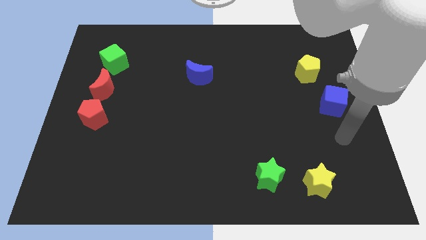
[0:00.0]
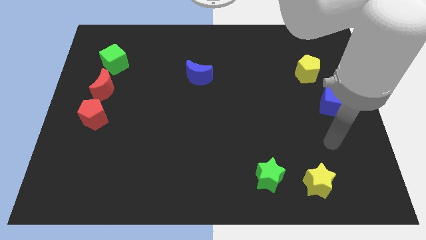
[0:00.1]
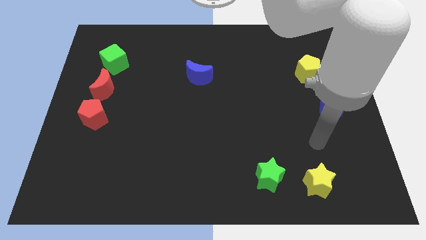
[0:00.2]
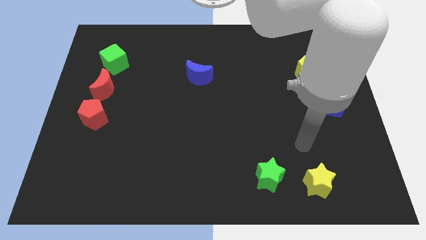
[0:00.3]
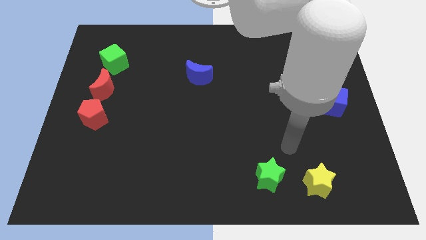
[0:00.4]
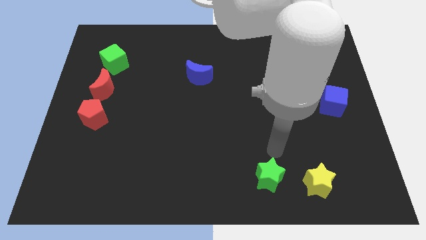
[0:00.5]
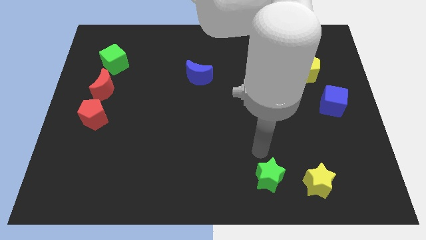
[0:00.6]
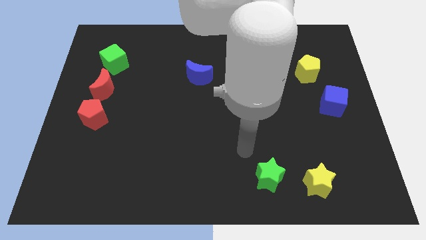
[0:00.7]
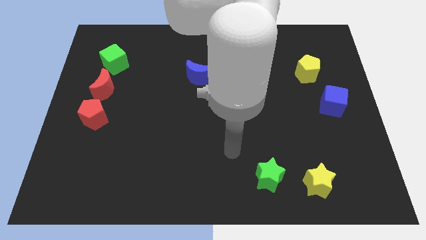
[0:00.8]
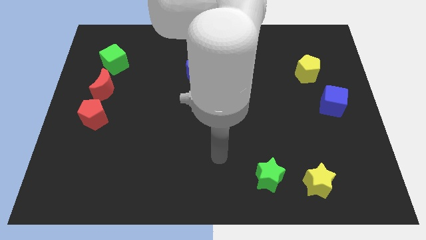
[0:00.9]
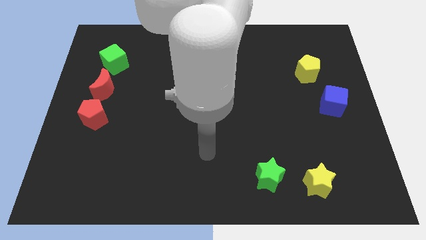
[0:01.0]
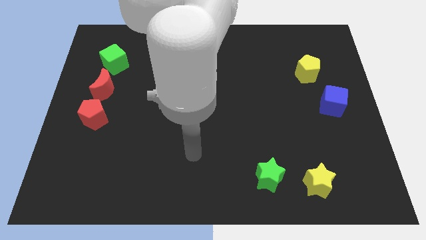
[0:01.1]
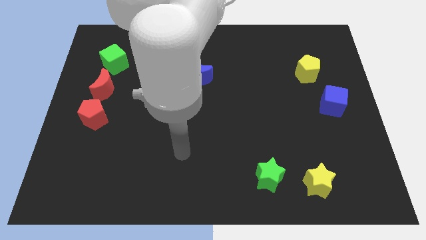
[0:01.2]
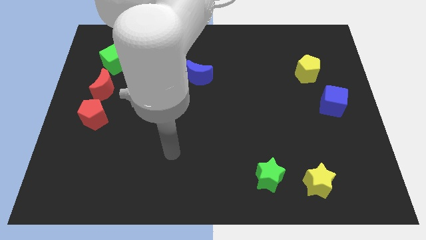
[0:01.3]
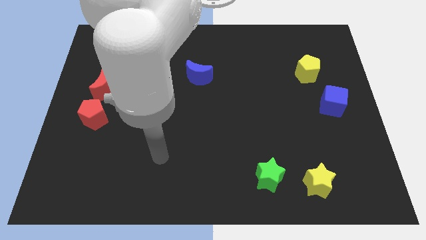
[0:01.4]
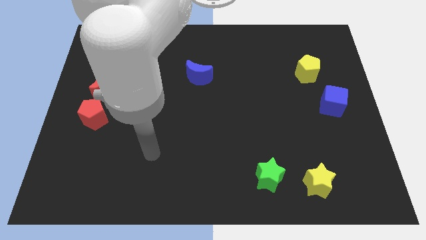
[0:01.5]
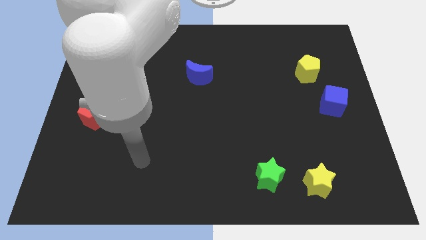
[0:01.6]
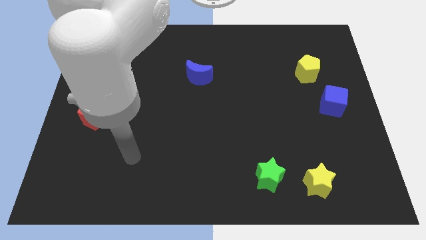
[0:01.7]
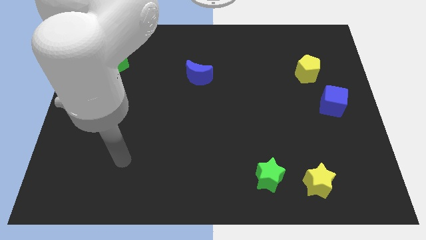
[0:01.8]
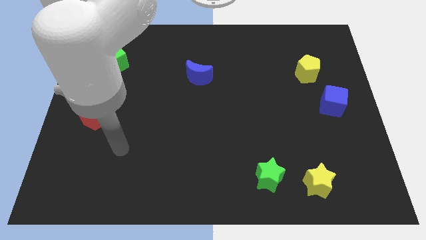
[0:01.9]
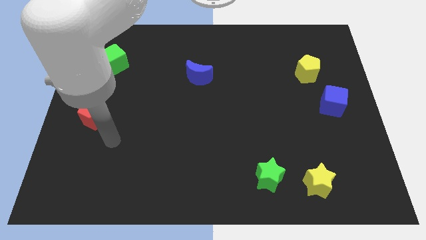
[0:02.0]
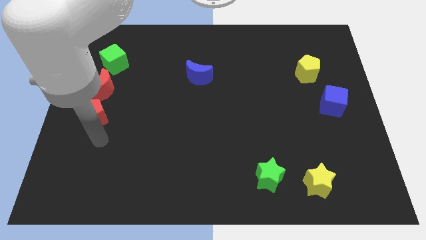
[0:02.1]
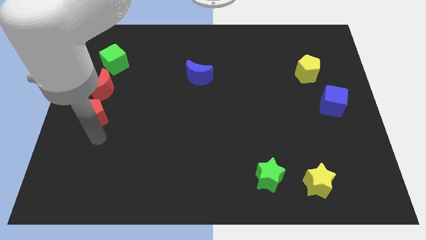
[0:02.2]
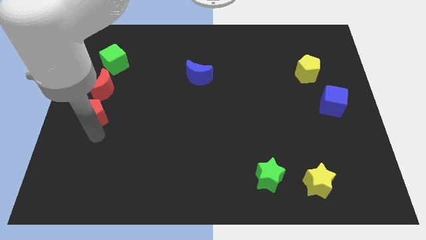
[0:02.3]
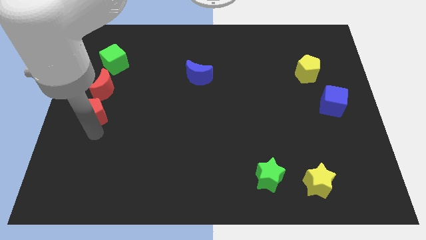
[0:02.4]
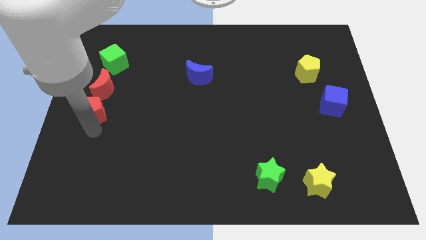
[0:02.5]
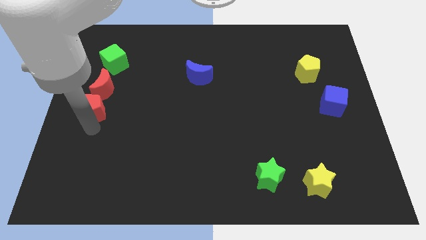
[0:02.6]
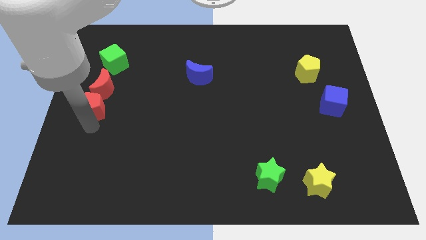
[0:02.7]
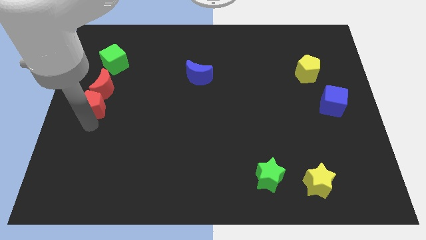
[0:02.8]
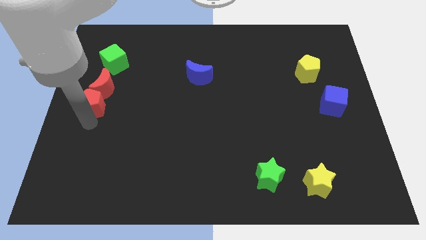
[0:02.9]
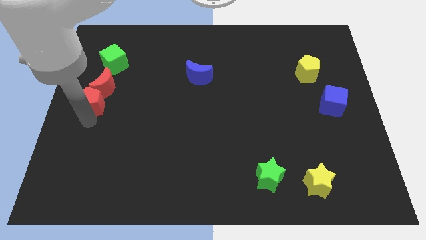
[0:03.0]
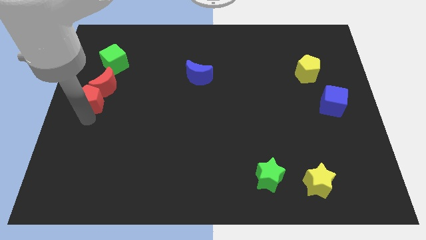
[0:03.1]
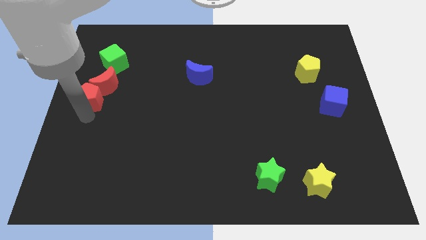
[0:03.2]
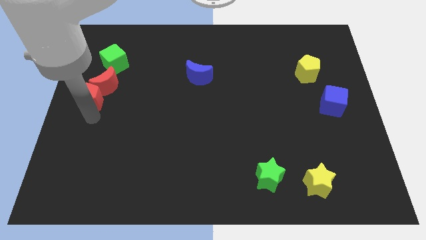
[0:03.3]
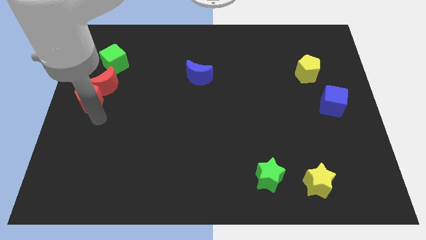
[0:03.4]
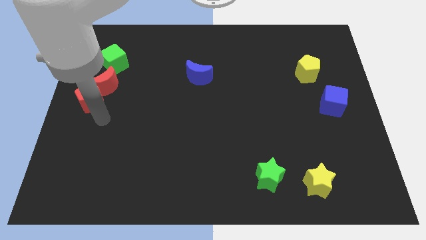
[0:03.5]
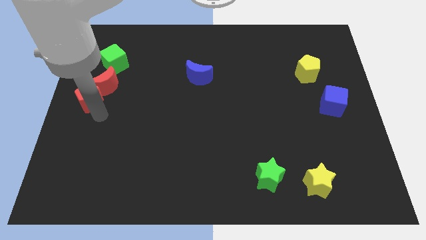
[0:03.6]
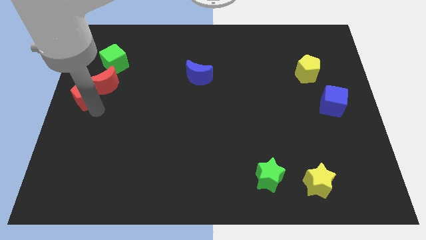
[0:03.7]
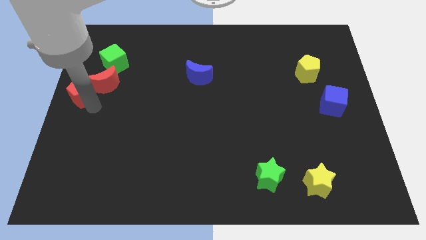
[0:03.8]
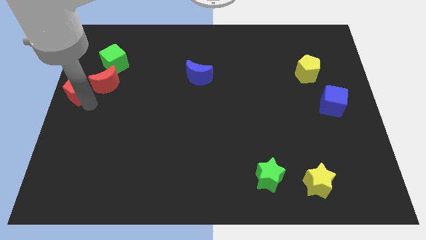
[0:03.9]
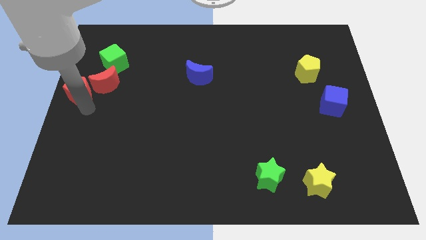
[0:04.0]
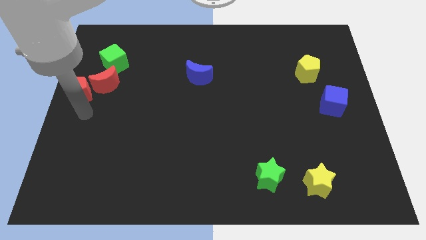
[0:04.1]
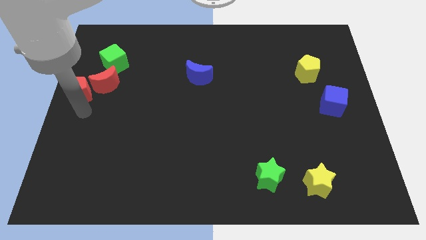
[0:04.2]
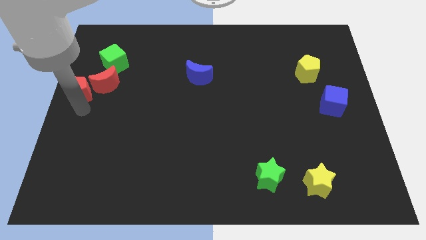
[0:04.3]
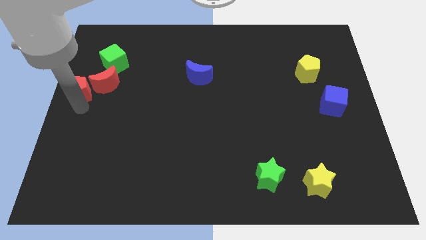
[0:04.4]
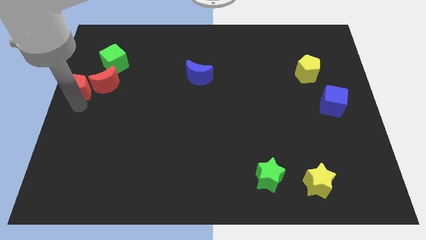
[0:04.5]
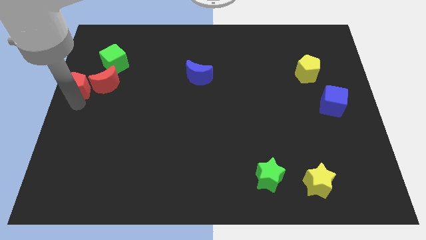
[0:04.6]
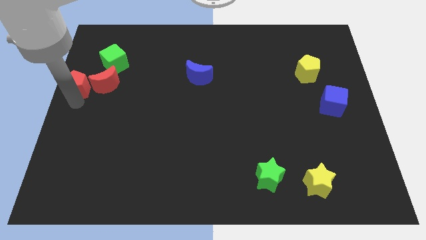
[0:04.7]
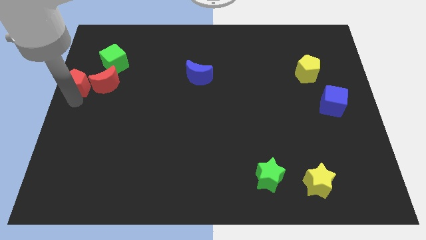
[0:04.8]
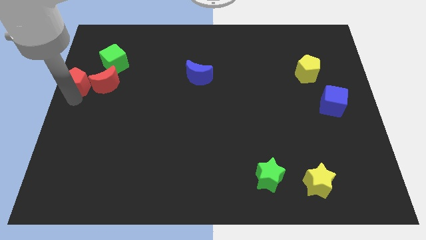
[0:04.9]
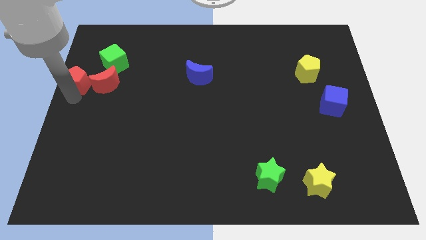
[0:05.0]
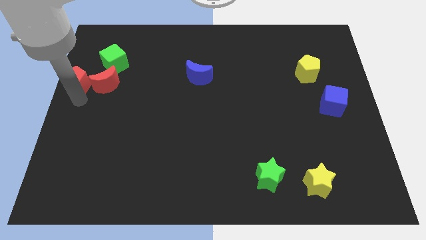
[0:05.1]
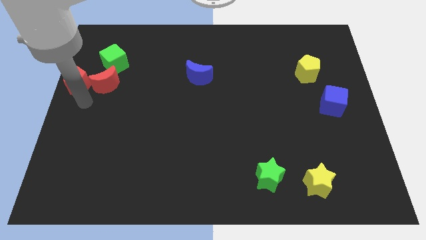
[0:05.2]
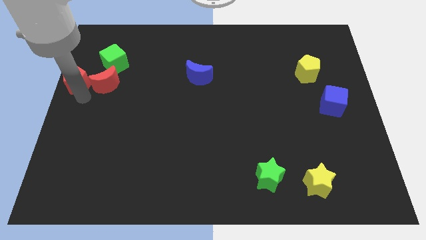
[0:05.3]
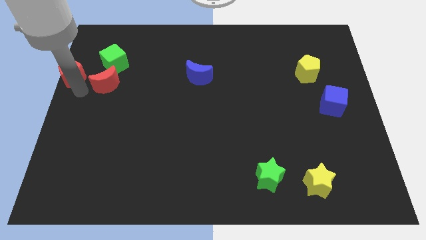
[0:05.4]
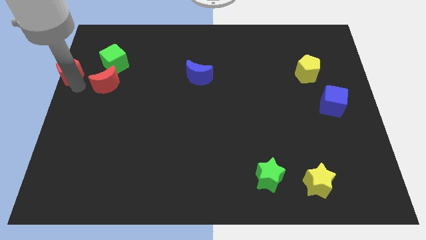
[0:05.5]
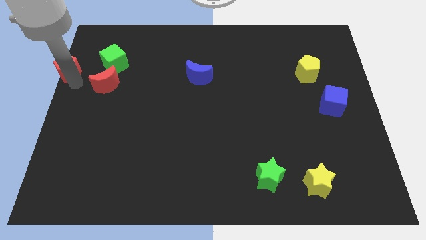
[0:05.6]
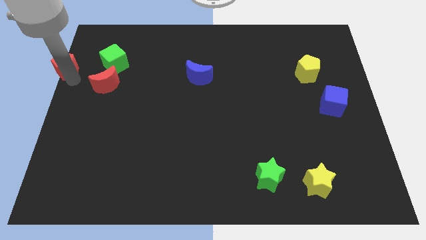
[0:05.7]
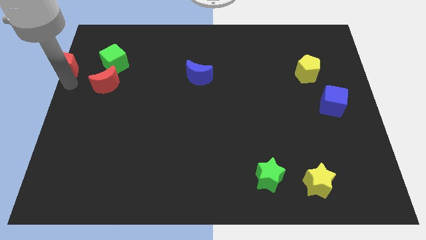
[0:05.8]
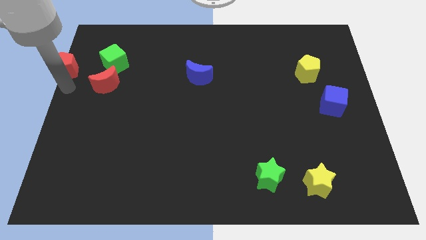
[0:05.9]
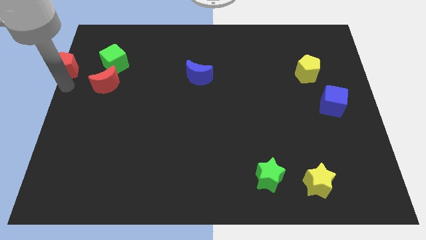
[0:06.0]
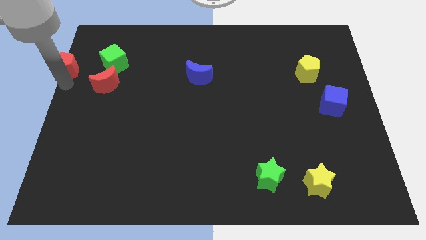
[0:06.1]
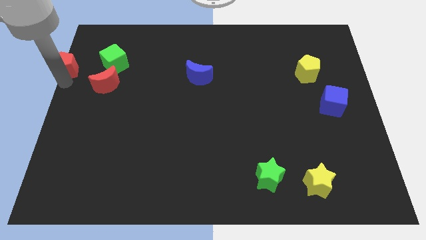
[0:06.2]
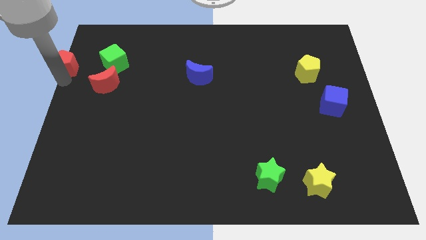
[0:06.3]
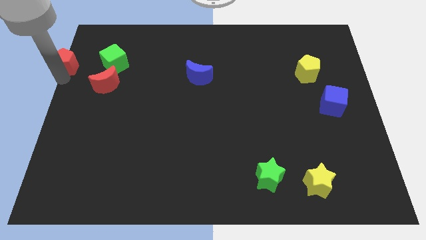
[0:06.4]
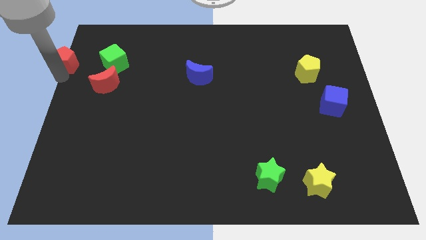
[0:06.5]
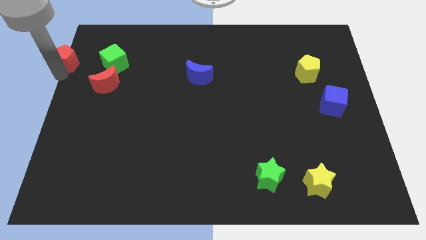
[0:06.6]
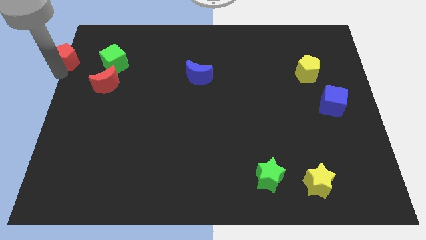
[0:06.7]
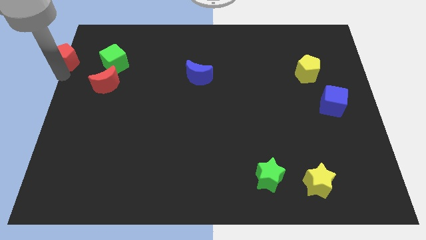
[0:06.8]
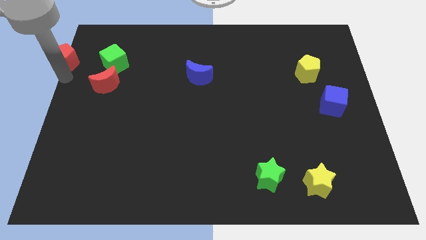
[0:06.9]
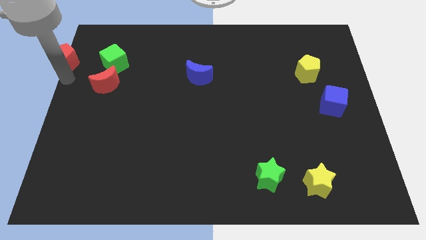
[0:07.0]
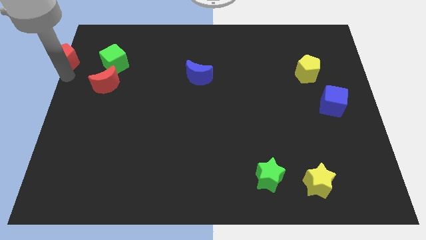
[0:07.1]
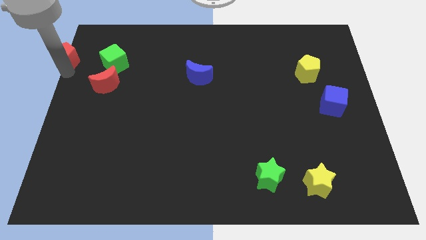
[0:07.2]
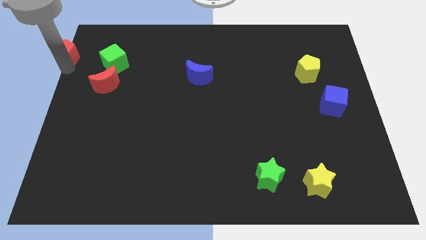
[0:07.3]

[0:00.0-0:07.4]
push the red pentagon to the upper left corner

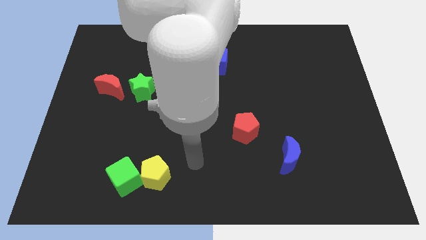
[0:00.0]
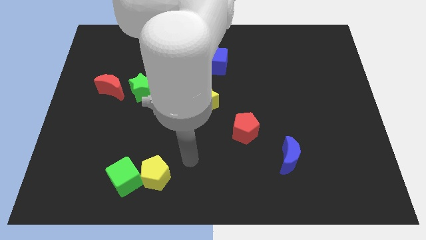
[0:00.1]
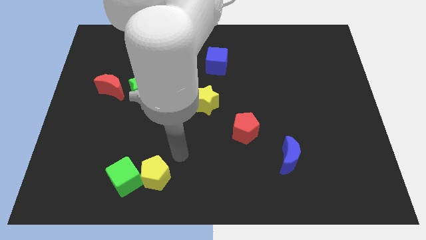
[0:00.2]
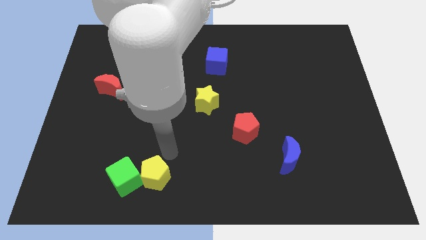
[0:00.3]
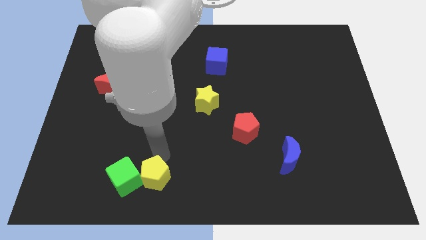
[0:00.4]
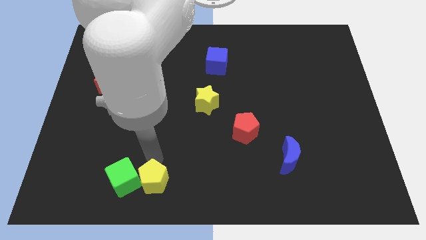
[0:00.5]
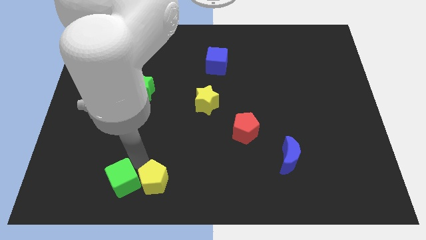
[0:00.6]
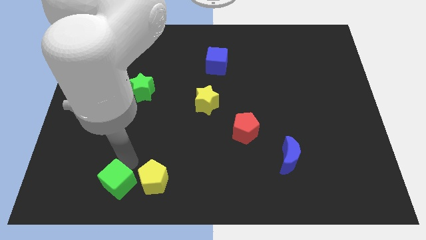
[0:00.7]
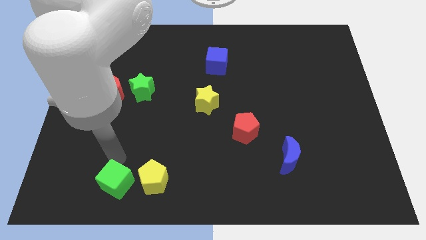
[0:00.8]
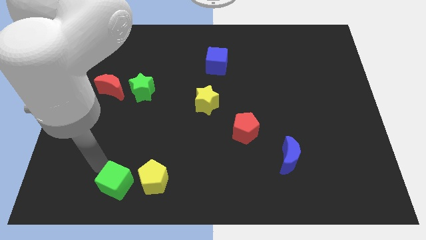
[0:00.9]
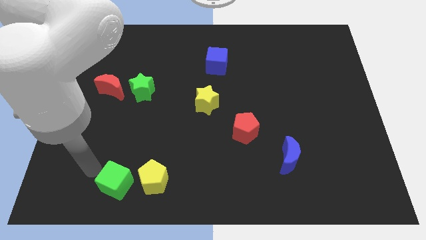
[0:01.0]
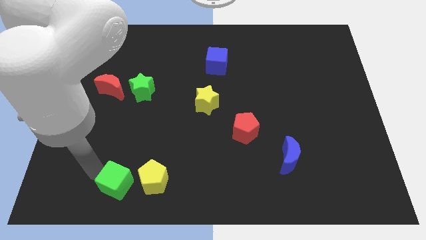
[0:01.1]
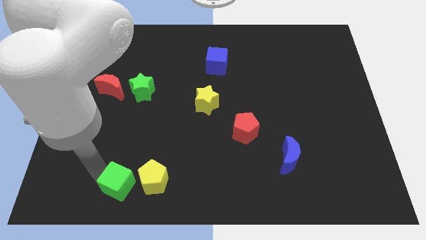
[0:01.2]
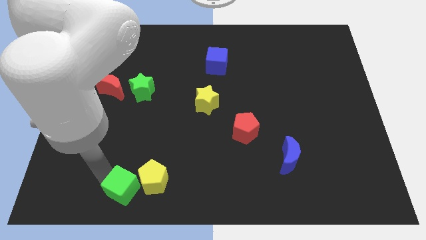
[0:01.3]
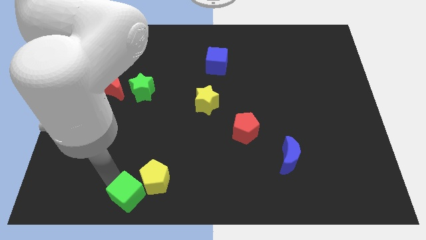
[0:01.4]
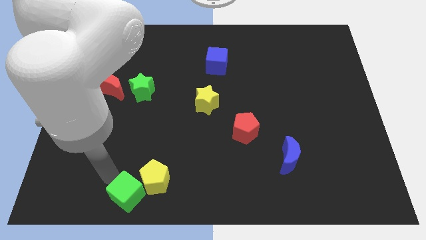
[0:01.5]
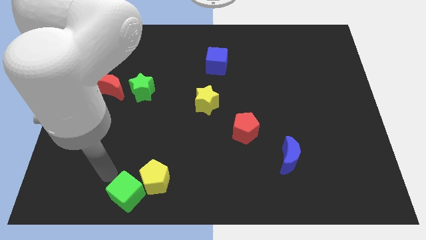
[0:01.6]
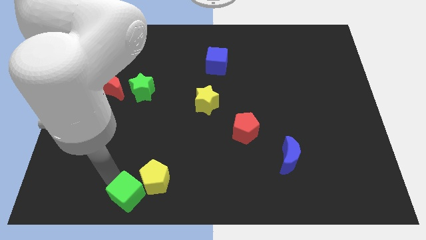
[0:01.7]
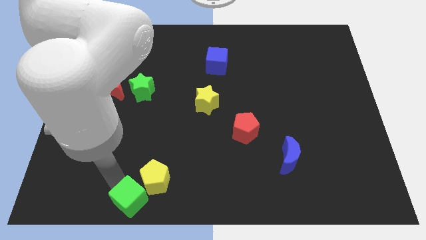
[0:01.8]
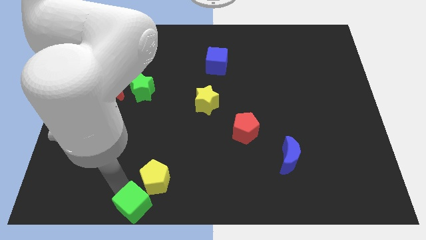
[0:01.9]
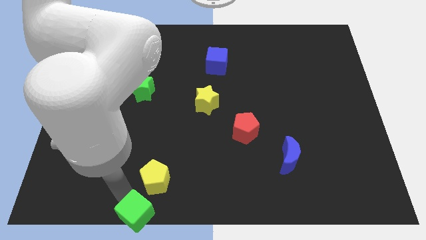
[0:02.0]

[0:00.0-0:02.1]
move the green cube to the bottom
